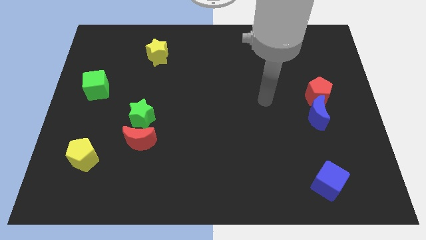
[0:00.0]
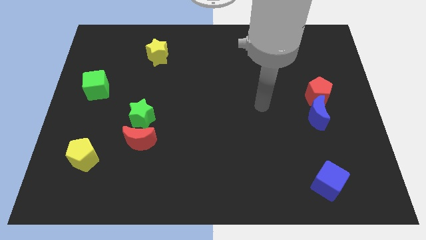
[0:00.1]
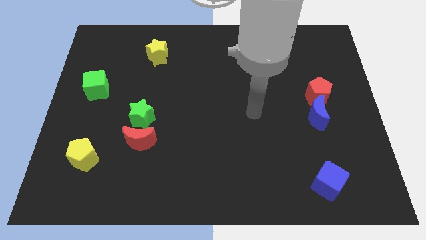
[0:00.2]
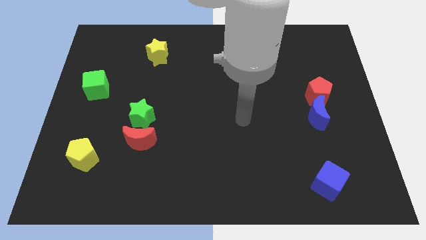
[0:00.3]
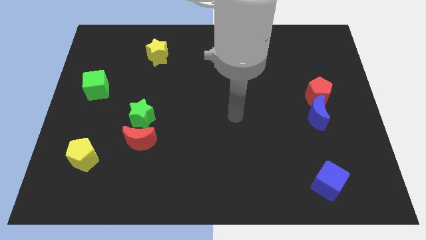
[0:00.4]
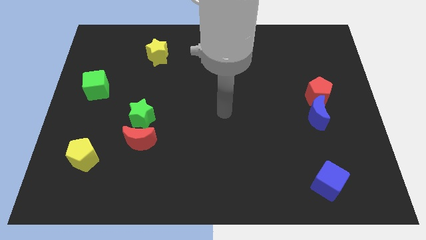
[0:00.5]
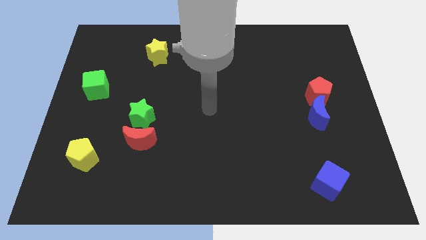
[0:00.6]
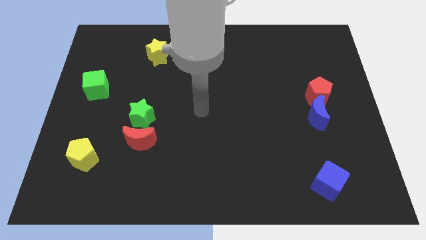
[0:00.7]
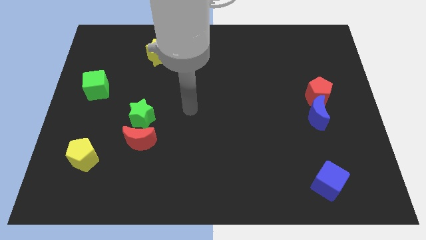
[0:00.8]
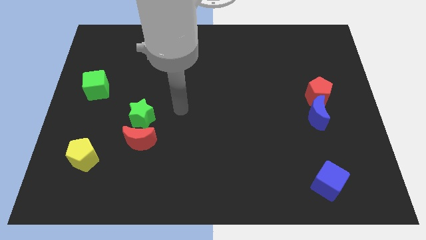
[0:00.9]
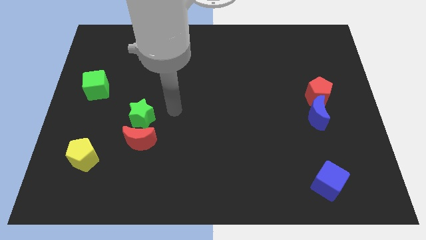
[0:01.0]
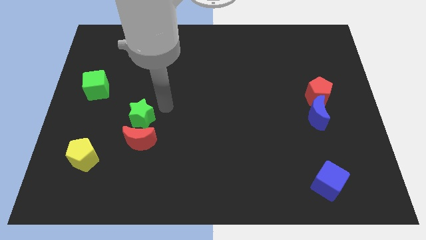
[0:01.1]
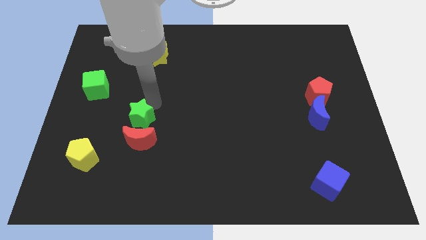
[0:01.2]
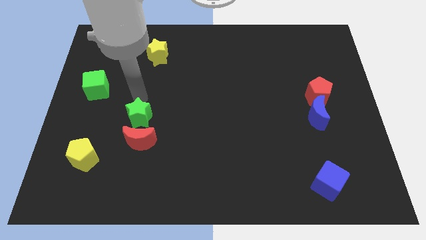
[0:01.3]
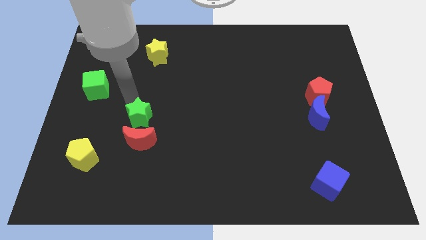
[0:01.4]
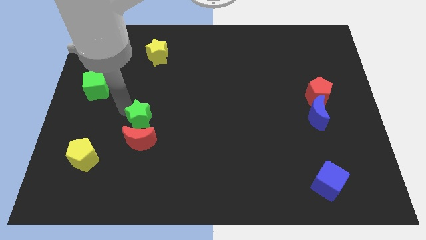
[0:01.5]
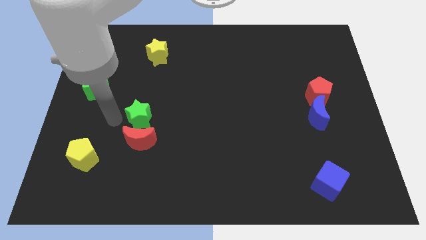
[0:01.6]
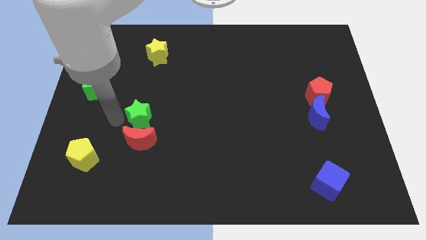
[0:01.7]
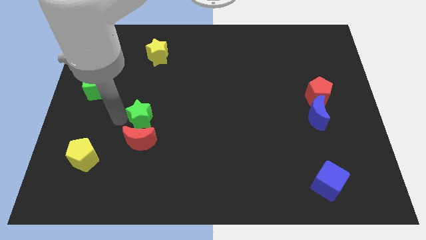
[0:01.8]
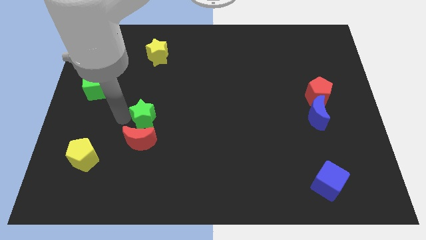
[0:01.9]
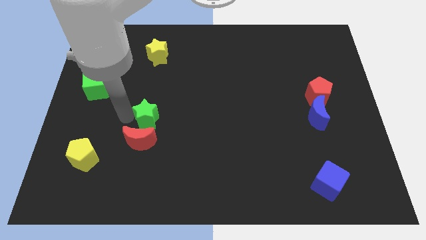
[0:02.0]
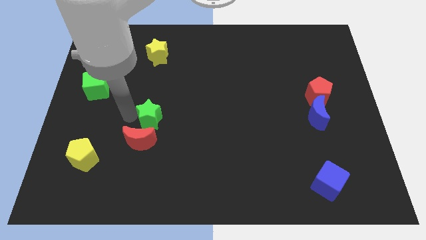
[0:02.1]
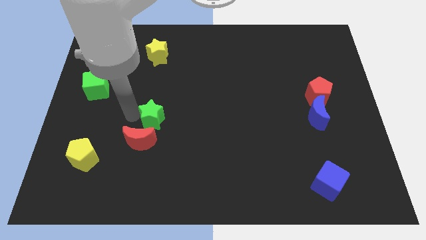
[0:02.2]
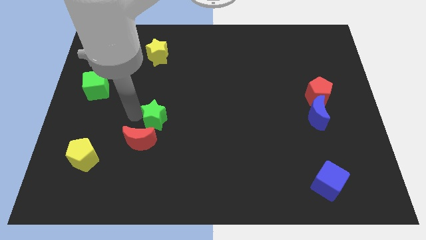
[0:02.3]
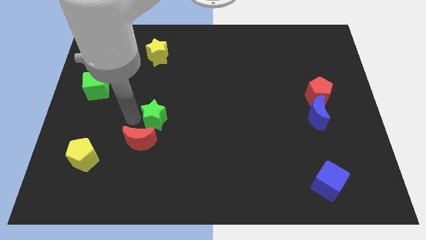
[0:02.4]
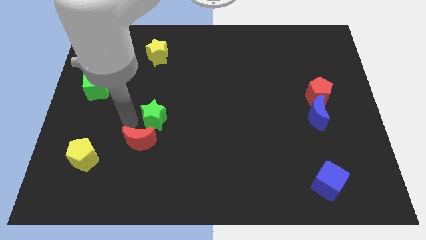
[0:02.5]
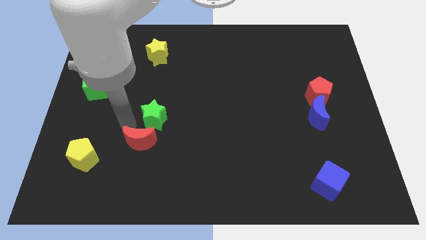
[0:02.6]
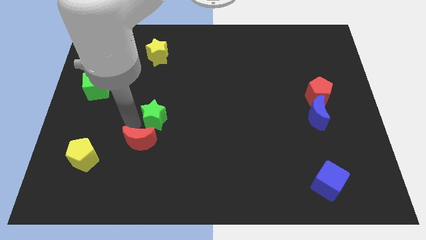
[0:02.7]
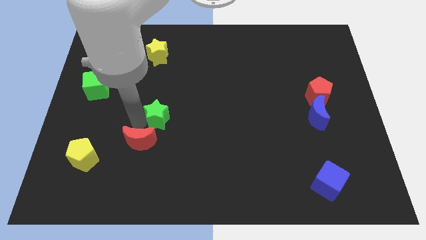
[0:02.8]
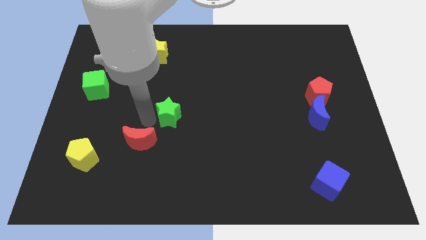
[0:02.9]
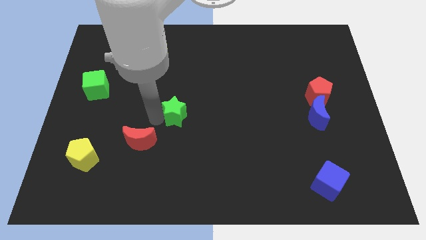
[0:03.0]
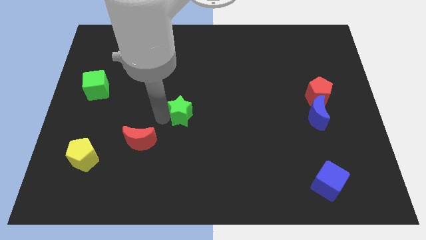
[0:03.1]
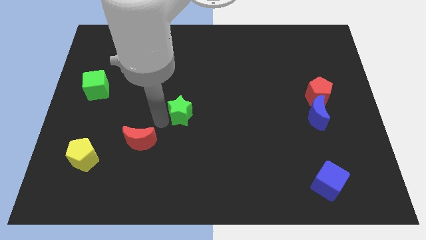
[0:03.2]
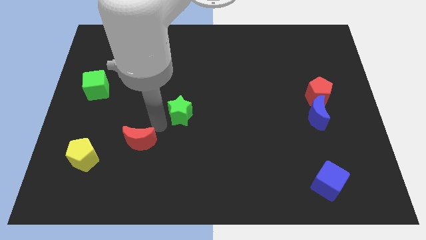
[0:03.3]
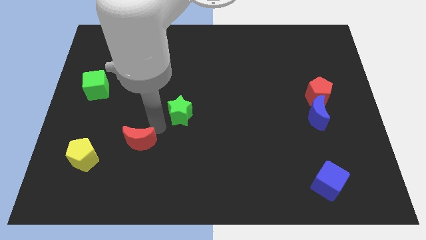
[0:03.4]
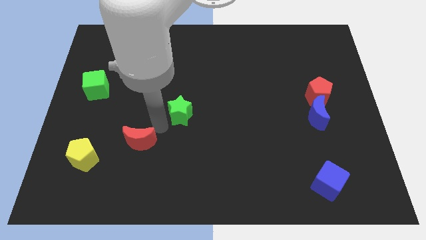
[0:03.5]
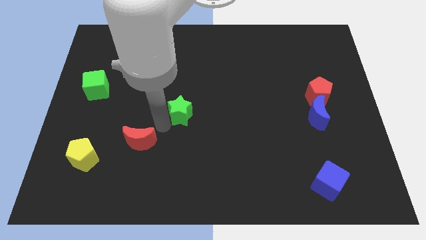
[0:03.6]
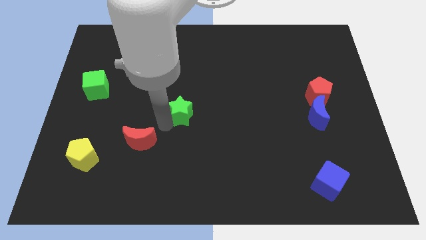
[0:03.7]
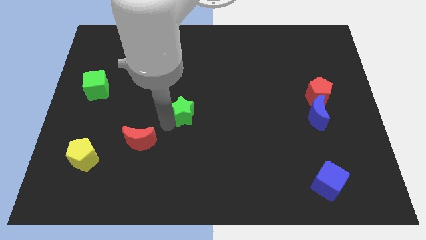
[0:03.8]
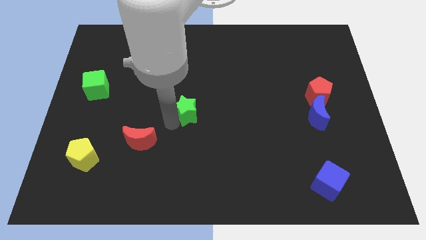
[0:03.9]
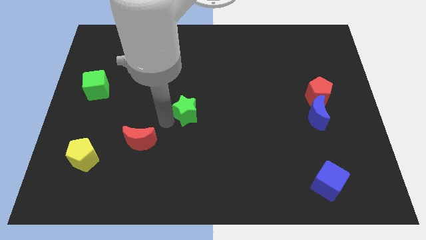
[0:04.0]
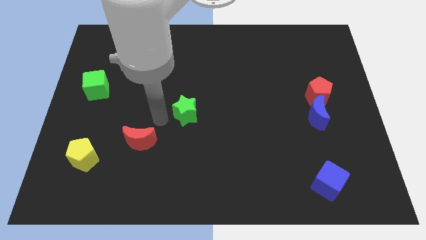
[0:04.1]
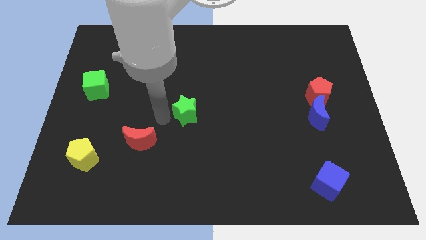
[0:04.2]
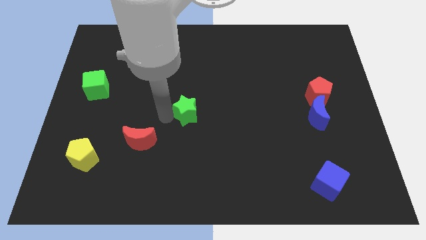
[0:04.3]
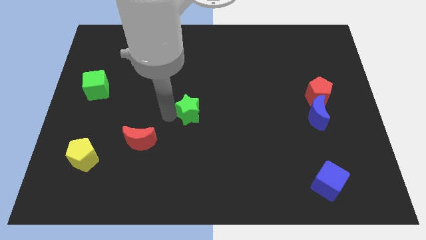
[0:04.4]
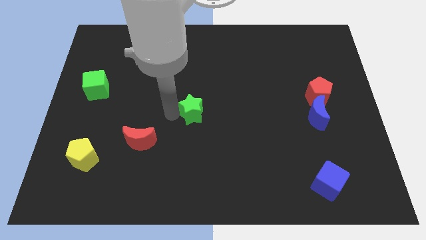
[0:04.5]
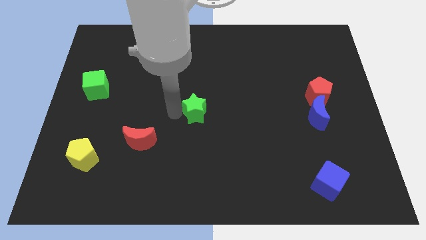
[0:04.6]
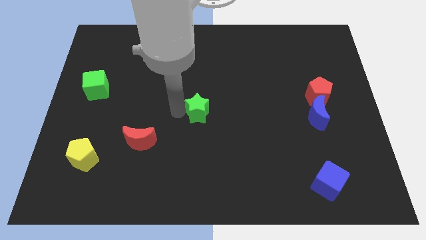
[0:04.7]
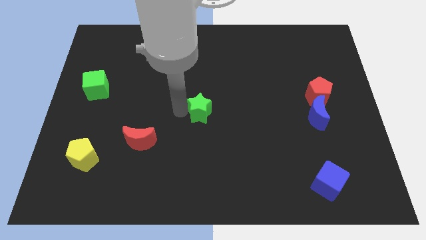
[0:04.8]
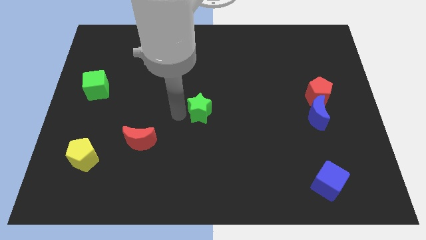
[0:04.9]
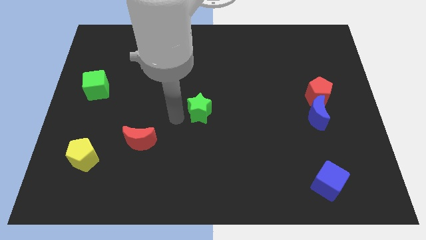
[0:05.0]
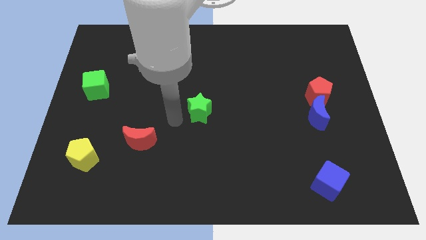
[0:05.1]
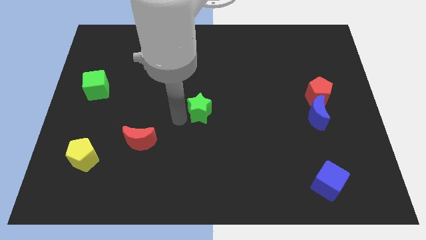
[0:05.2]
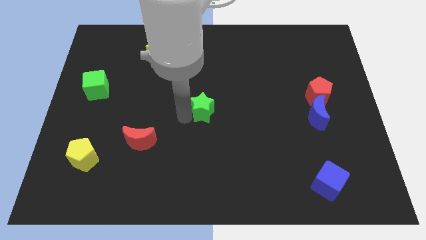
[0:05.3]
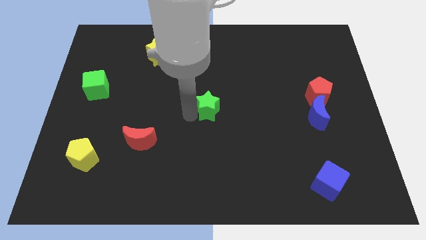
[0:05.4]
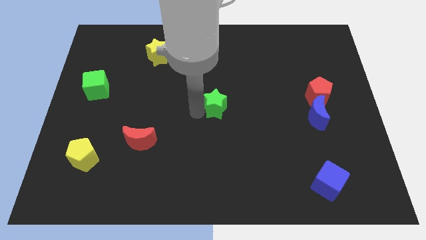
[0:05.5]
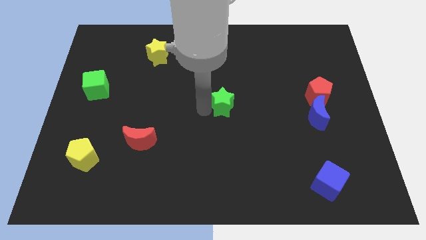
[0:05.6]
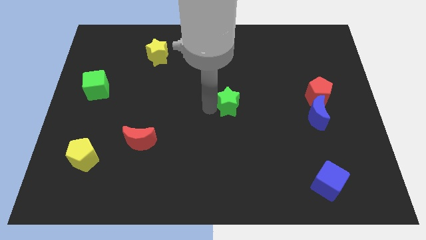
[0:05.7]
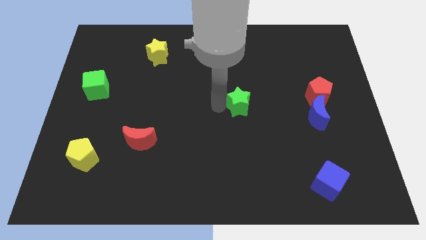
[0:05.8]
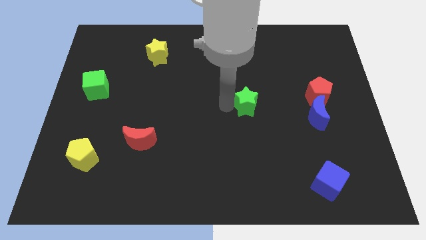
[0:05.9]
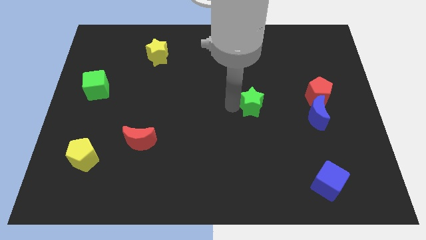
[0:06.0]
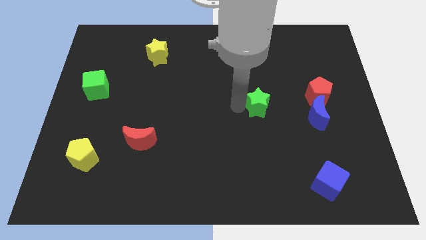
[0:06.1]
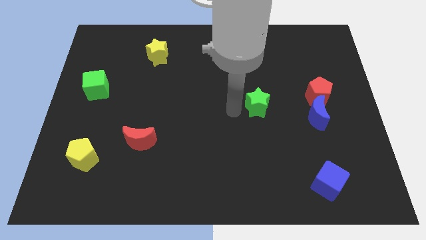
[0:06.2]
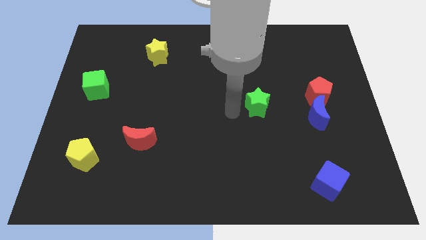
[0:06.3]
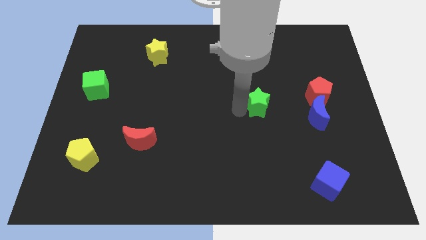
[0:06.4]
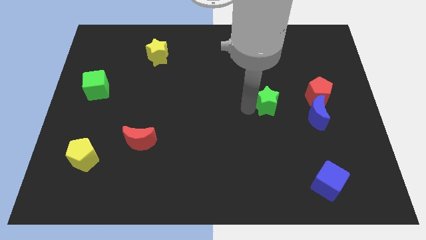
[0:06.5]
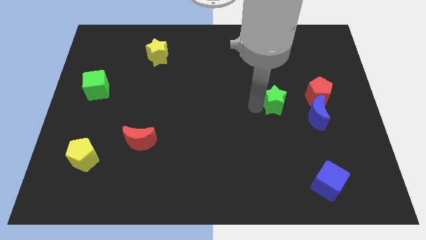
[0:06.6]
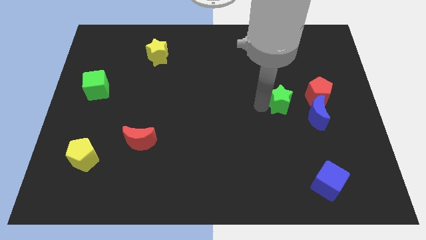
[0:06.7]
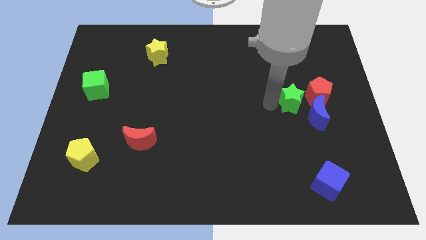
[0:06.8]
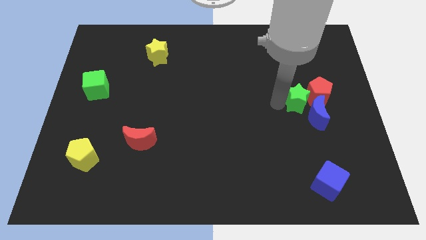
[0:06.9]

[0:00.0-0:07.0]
put the green star to the red pentagon
